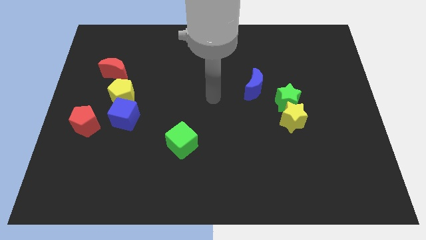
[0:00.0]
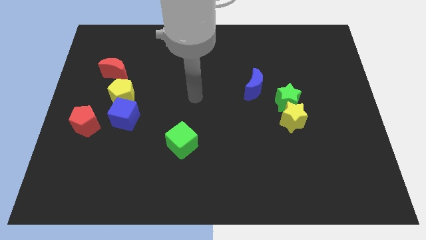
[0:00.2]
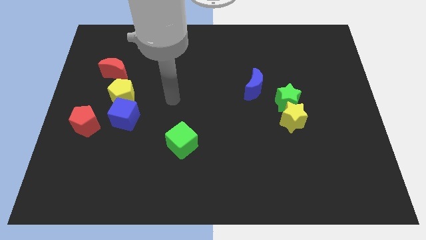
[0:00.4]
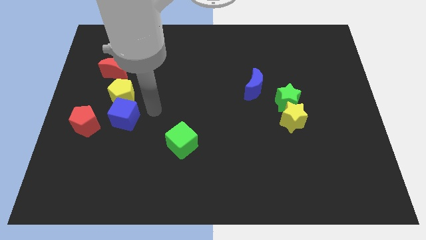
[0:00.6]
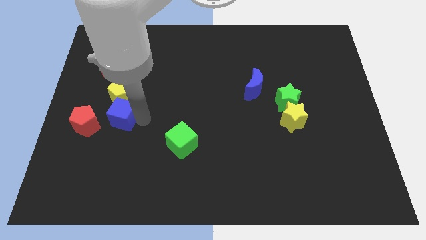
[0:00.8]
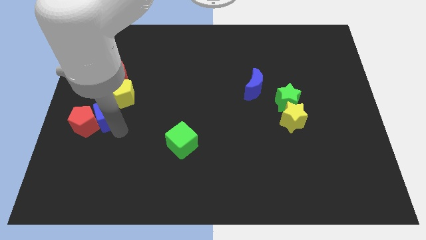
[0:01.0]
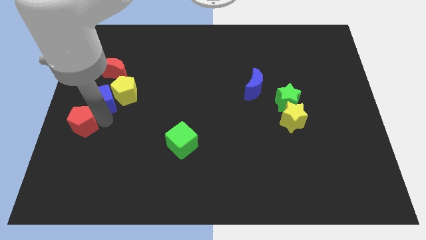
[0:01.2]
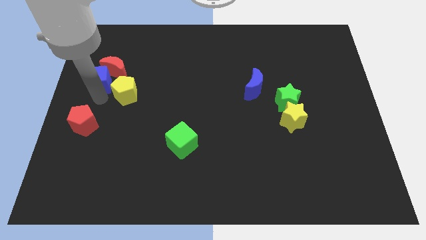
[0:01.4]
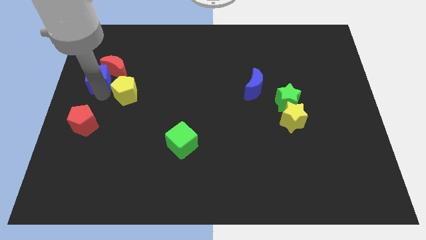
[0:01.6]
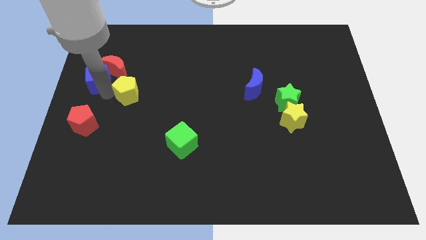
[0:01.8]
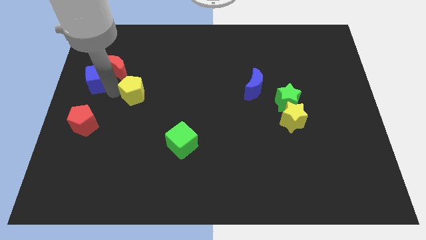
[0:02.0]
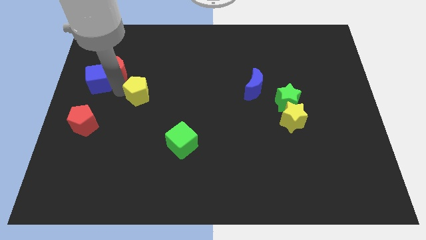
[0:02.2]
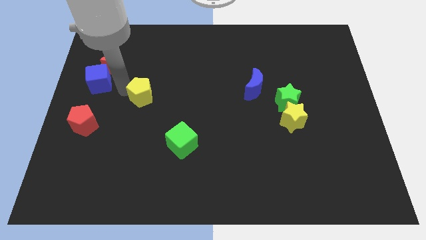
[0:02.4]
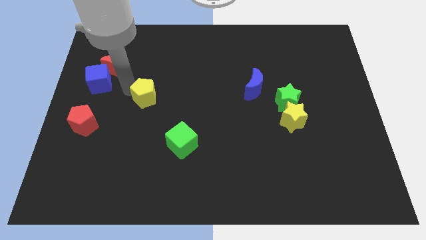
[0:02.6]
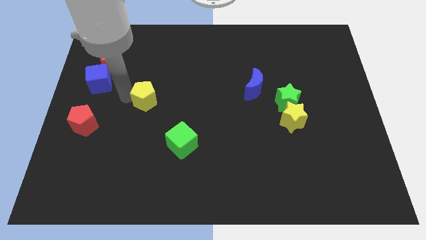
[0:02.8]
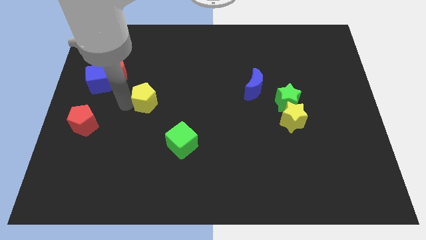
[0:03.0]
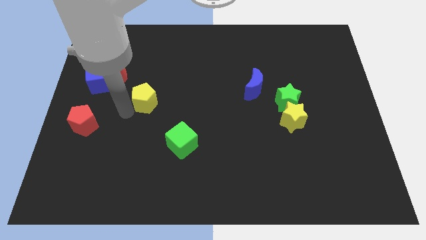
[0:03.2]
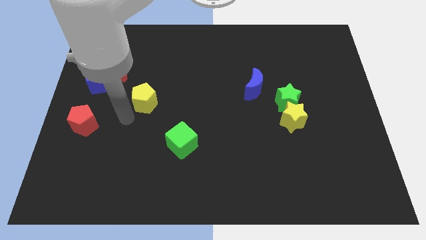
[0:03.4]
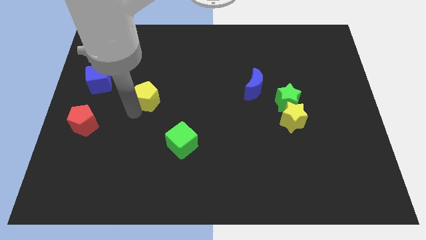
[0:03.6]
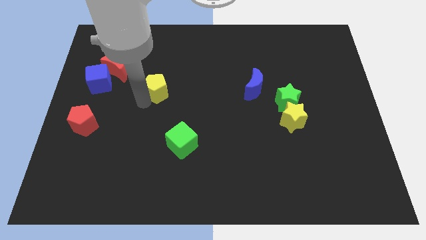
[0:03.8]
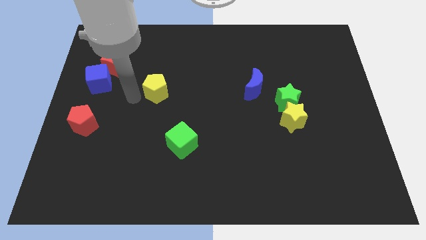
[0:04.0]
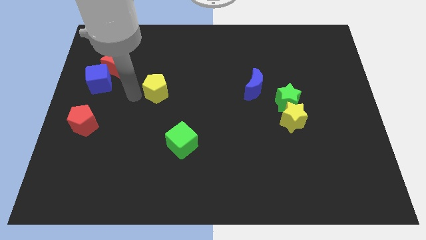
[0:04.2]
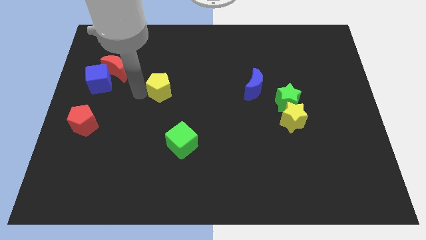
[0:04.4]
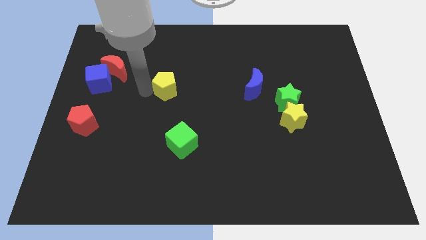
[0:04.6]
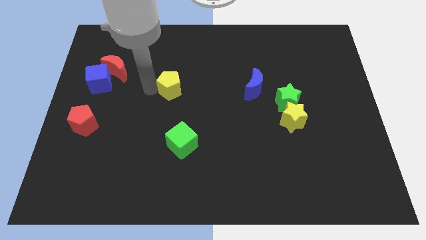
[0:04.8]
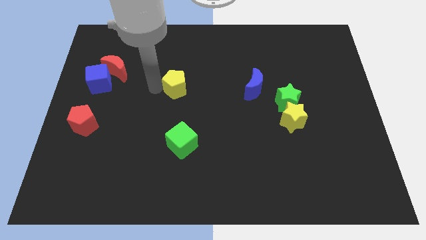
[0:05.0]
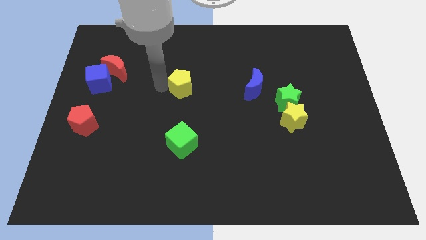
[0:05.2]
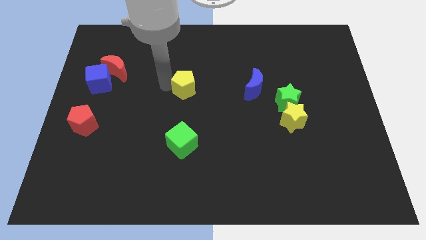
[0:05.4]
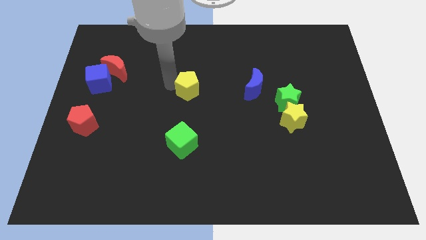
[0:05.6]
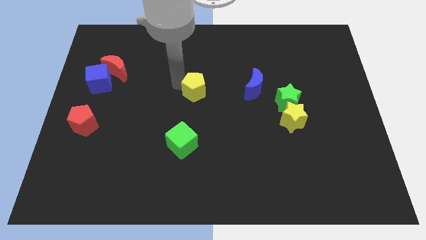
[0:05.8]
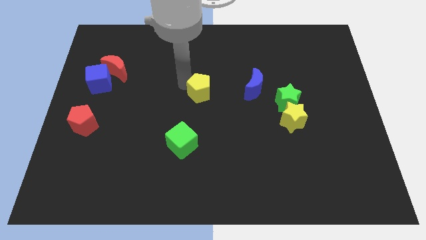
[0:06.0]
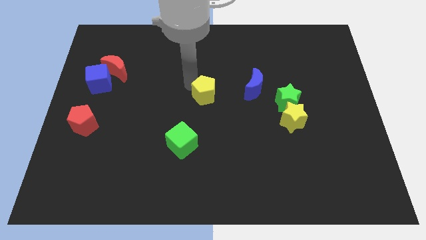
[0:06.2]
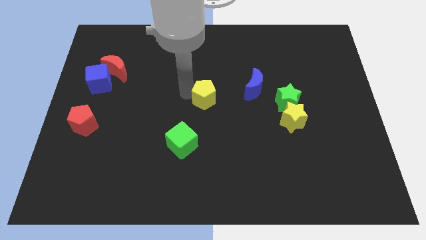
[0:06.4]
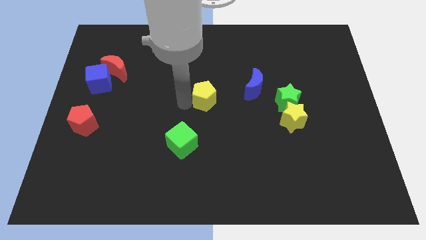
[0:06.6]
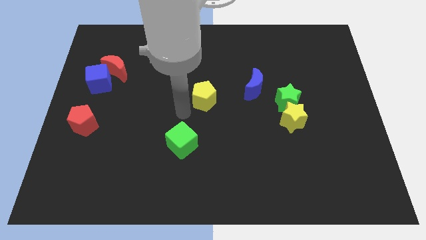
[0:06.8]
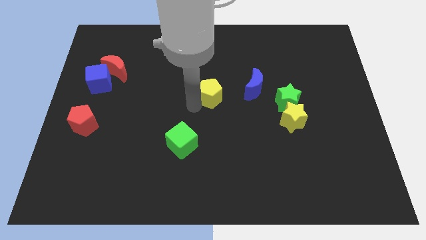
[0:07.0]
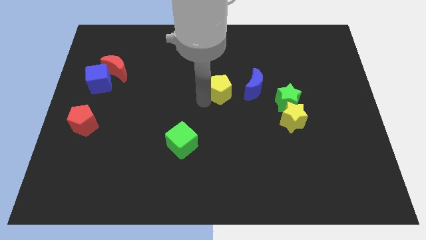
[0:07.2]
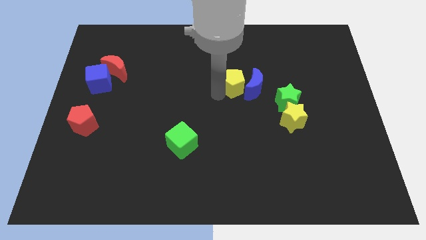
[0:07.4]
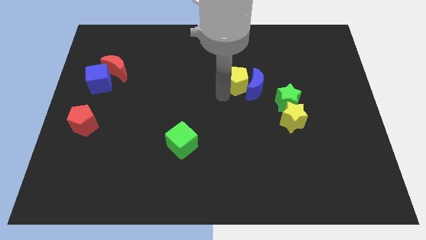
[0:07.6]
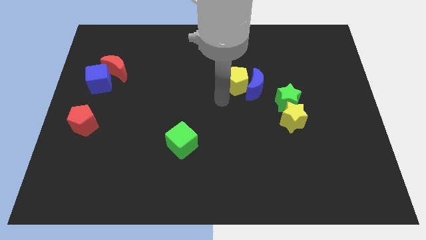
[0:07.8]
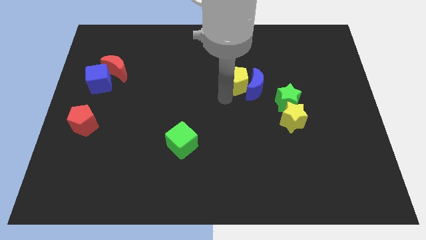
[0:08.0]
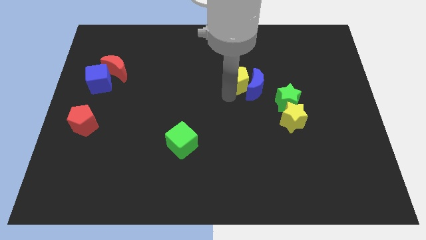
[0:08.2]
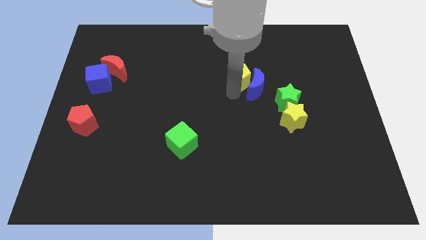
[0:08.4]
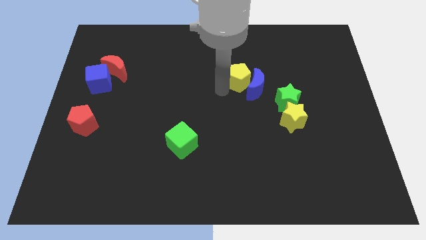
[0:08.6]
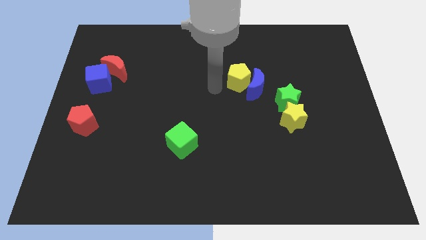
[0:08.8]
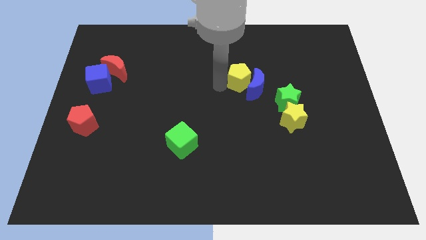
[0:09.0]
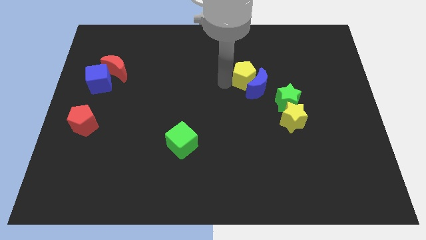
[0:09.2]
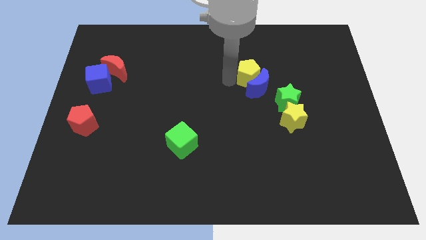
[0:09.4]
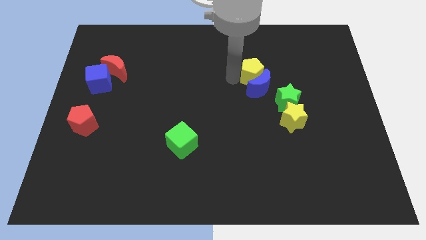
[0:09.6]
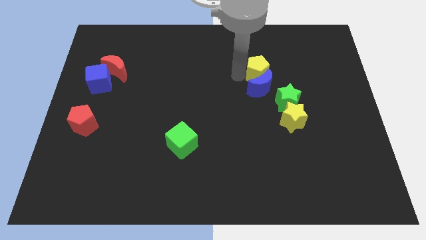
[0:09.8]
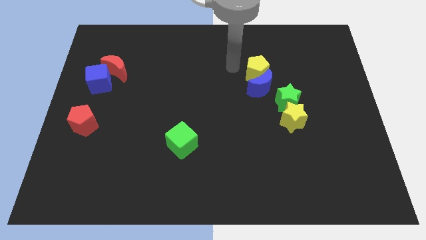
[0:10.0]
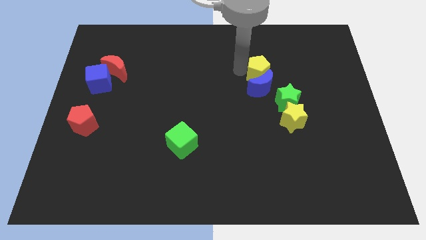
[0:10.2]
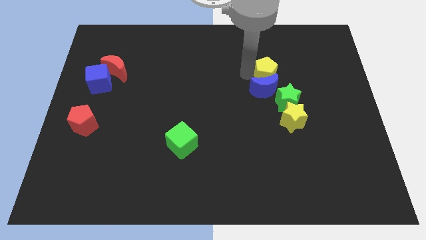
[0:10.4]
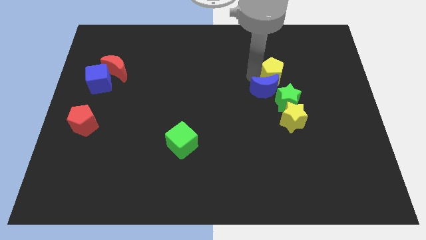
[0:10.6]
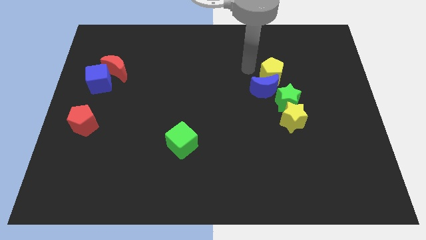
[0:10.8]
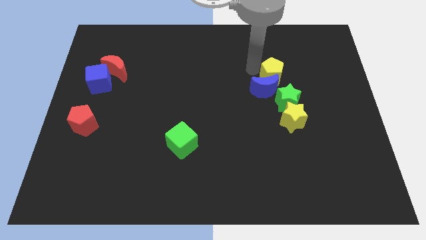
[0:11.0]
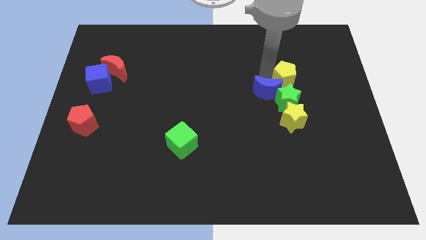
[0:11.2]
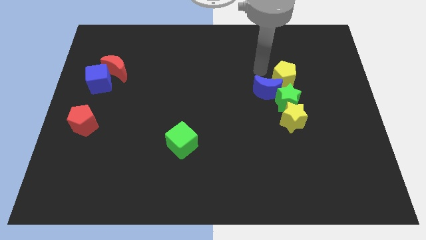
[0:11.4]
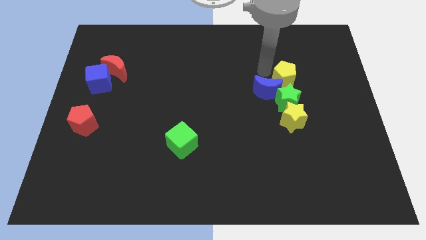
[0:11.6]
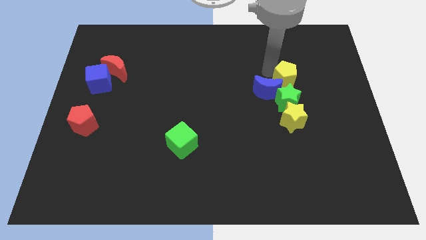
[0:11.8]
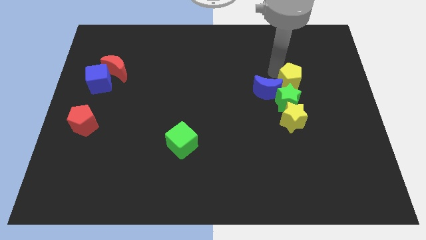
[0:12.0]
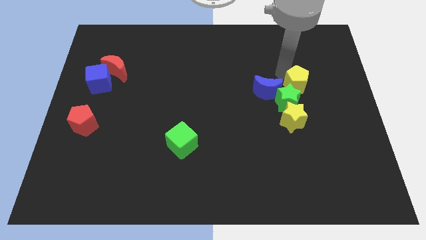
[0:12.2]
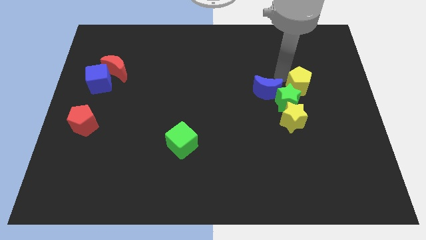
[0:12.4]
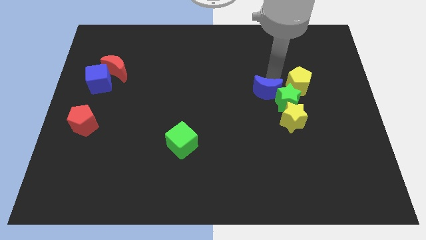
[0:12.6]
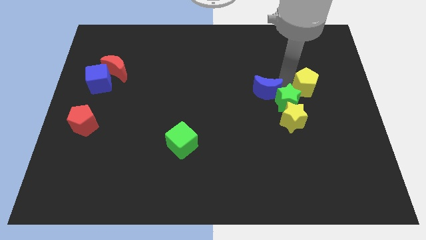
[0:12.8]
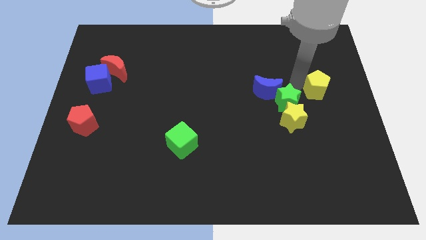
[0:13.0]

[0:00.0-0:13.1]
put the yellow pentagon to the right side of the board
